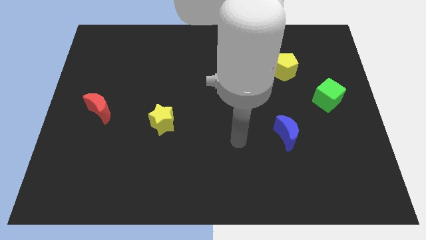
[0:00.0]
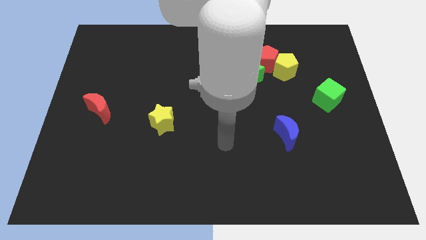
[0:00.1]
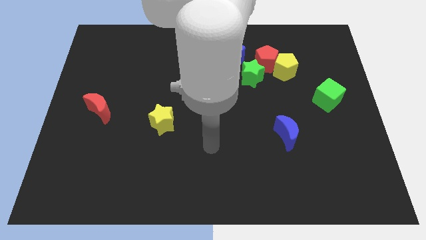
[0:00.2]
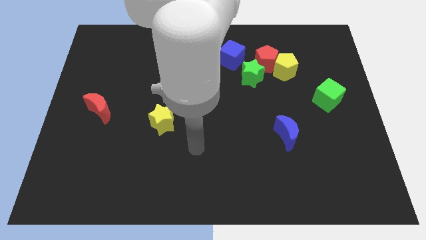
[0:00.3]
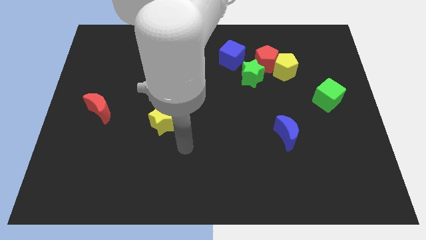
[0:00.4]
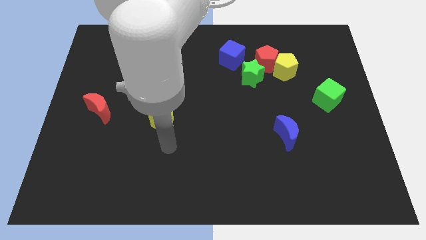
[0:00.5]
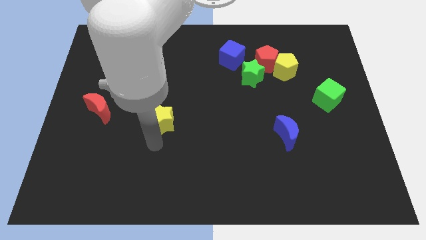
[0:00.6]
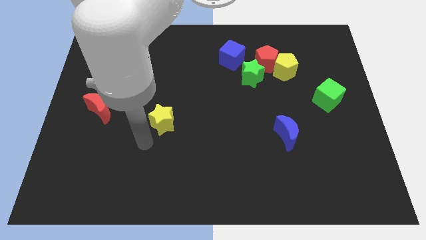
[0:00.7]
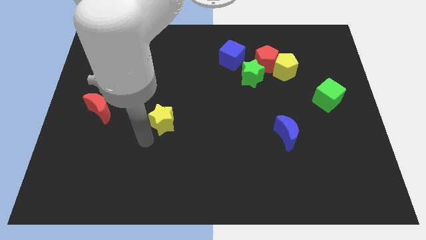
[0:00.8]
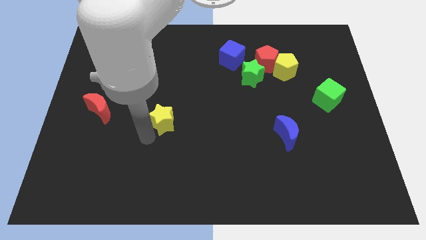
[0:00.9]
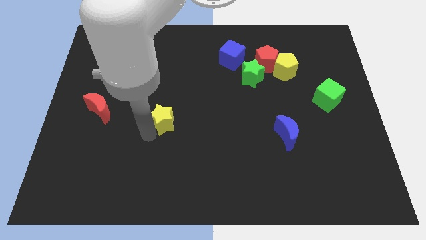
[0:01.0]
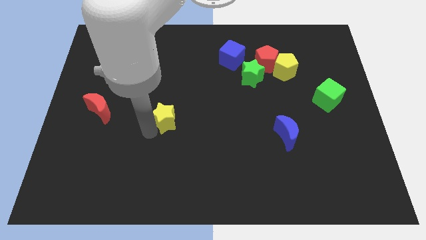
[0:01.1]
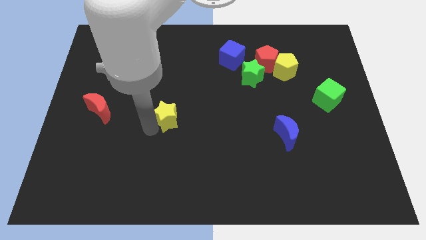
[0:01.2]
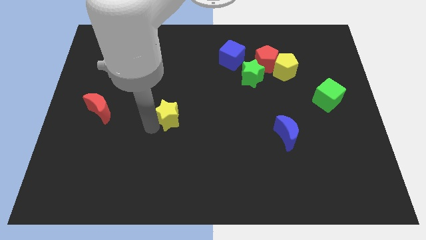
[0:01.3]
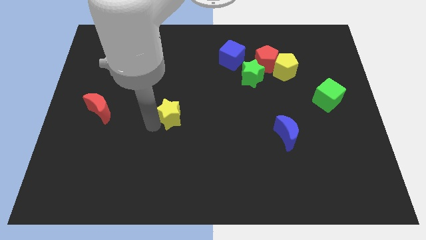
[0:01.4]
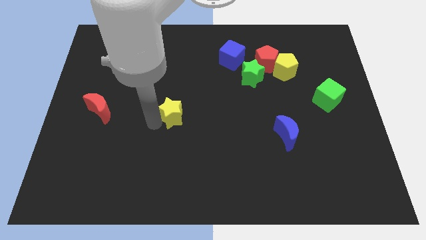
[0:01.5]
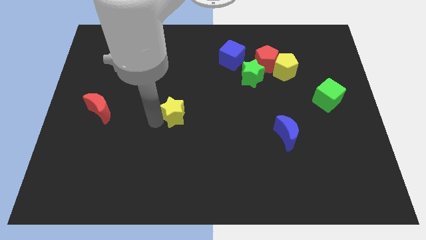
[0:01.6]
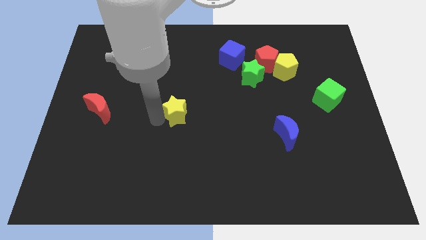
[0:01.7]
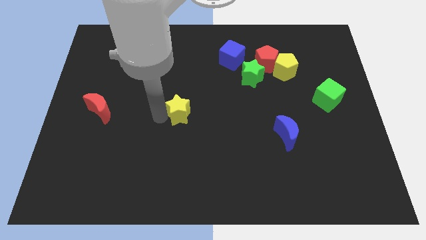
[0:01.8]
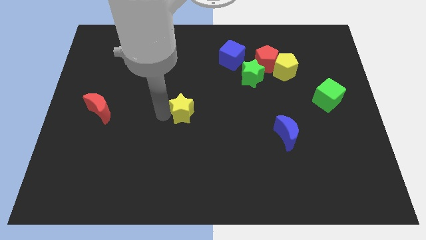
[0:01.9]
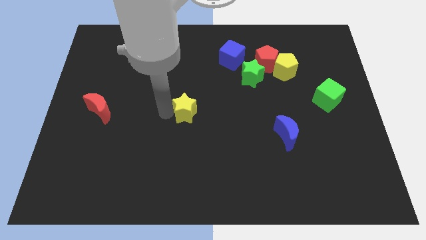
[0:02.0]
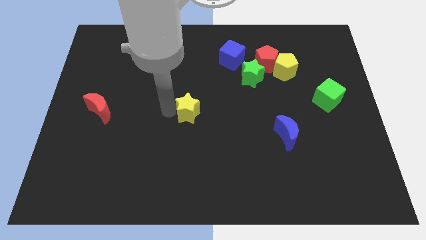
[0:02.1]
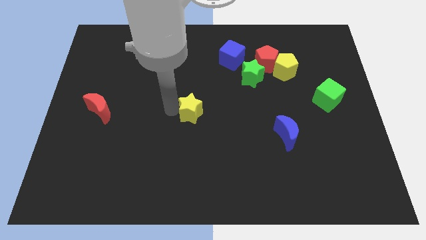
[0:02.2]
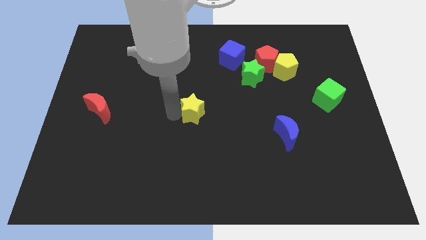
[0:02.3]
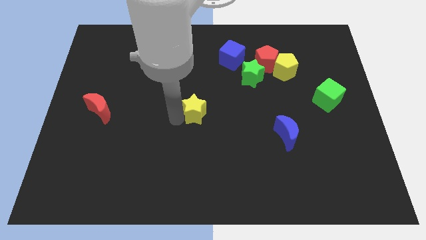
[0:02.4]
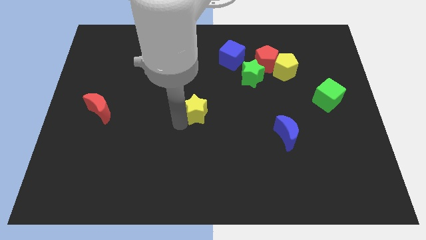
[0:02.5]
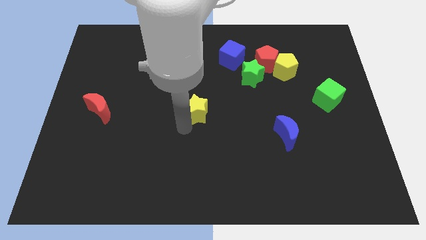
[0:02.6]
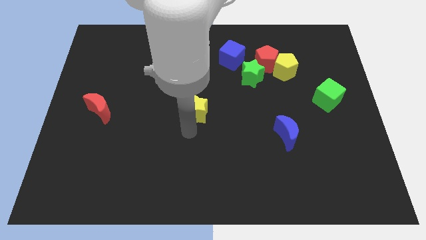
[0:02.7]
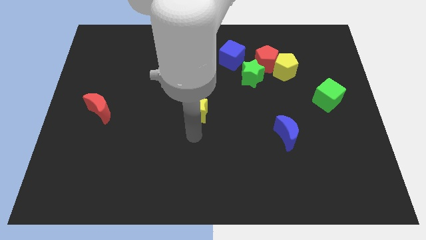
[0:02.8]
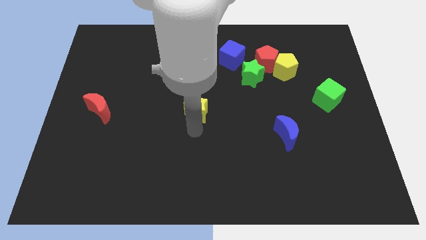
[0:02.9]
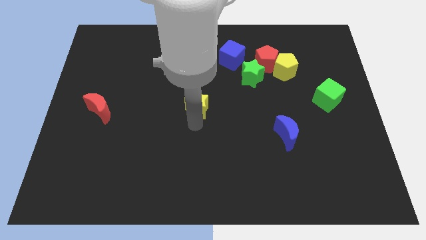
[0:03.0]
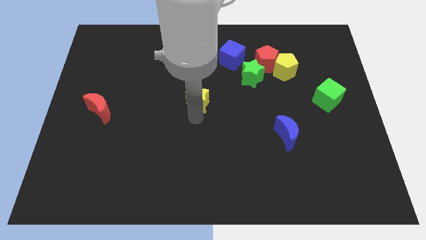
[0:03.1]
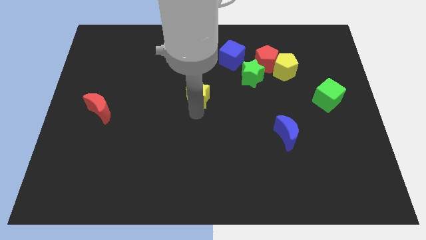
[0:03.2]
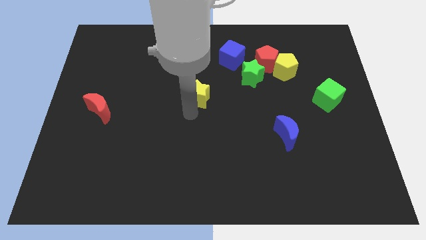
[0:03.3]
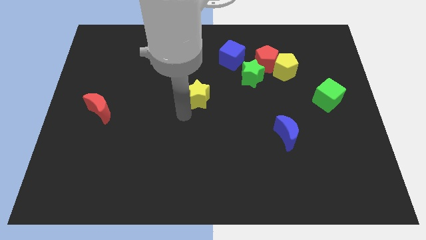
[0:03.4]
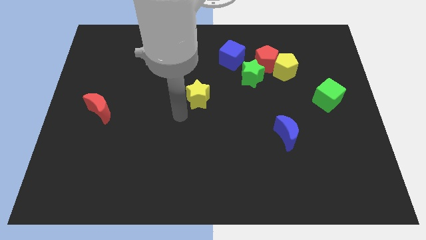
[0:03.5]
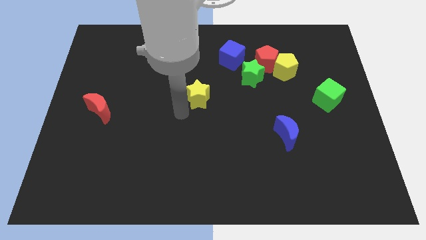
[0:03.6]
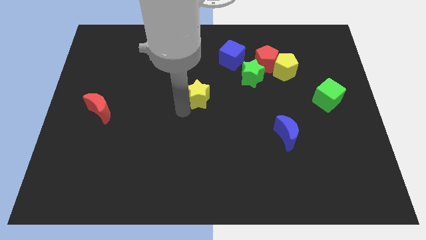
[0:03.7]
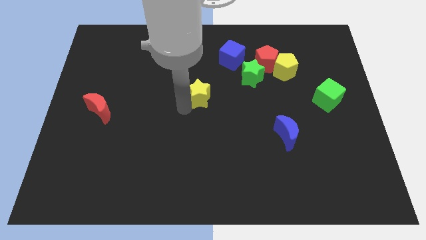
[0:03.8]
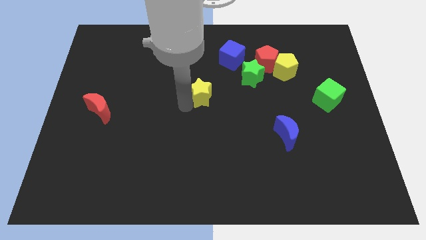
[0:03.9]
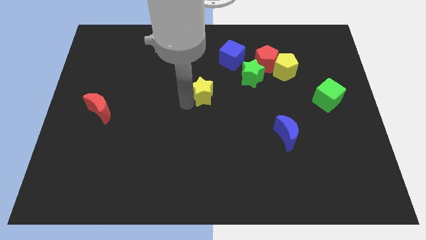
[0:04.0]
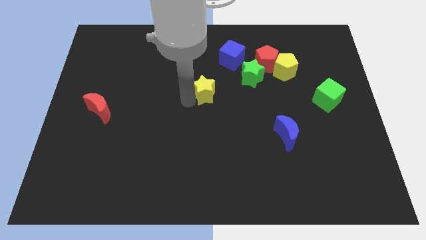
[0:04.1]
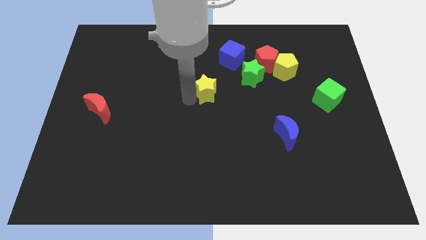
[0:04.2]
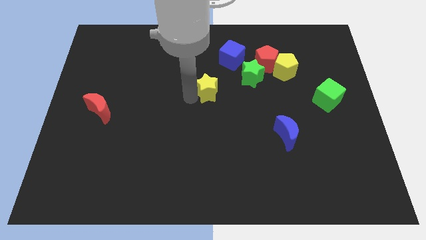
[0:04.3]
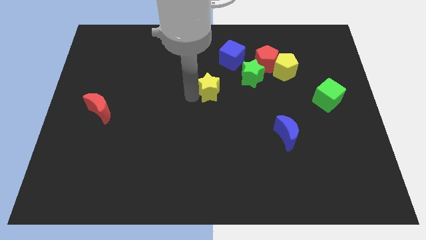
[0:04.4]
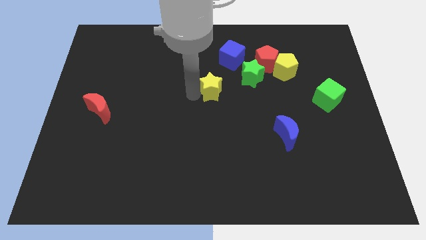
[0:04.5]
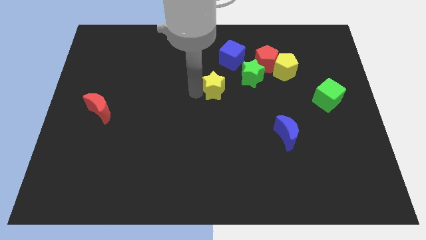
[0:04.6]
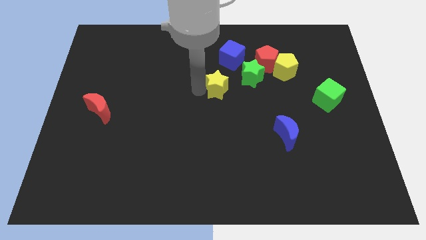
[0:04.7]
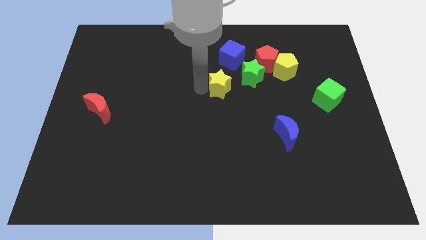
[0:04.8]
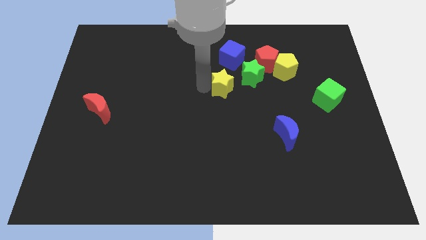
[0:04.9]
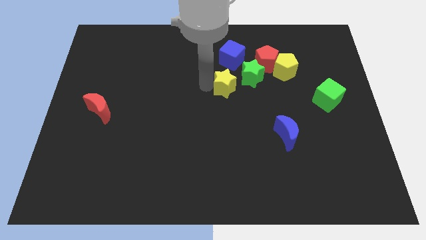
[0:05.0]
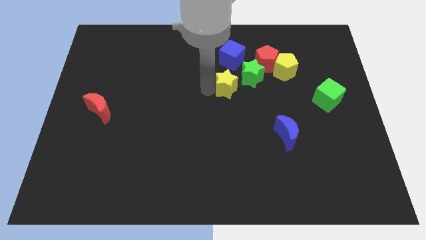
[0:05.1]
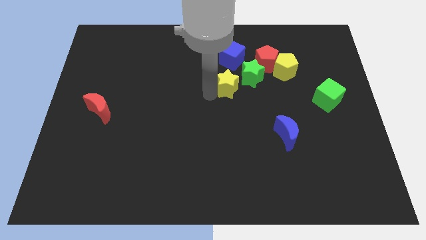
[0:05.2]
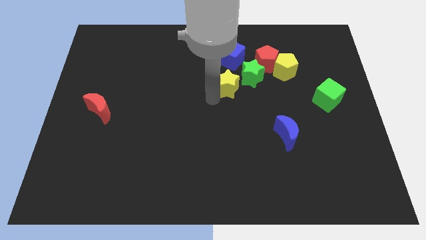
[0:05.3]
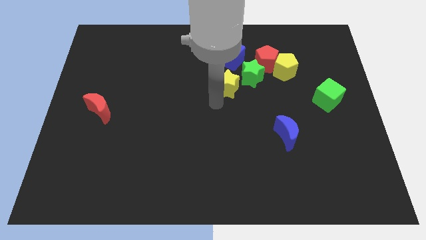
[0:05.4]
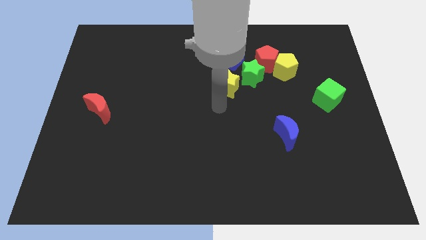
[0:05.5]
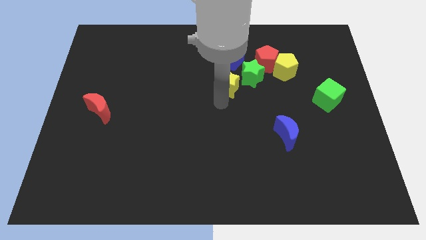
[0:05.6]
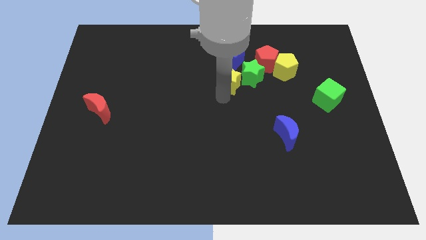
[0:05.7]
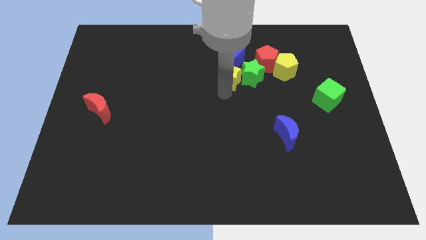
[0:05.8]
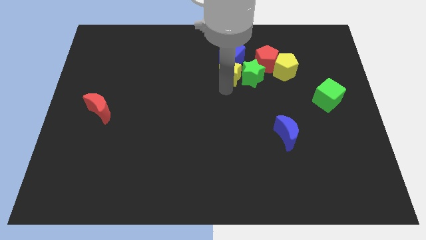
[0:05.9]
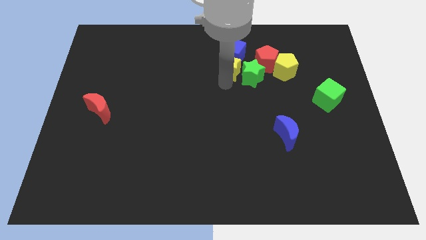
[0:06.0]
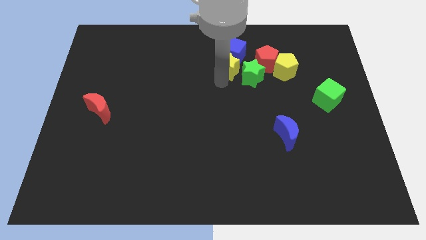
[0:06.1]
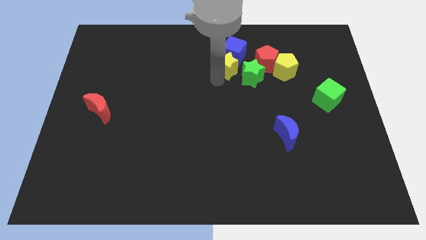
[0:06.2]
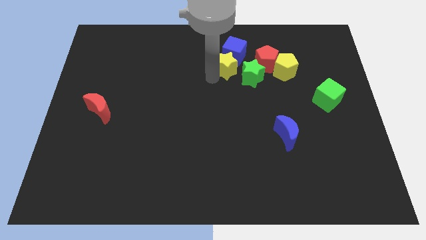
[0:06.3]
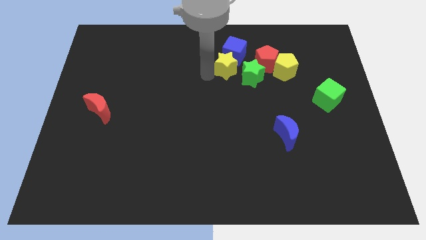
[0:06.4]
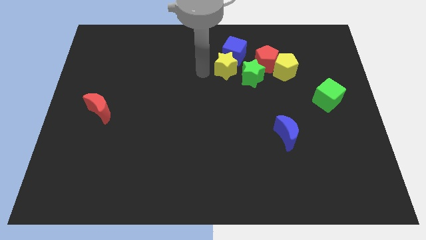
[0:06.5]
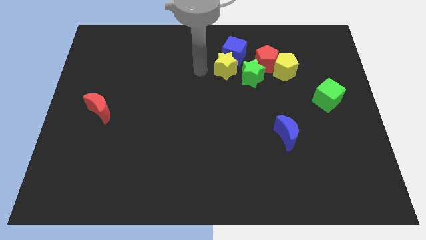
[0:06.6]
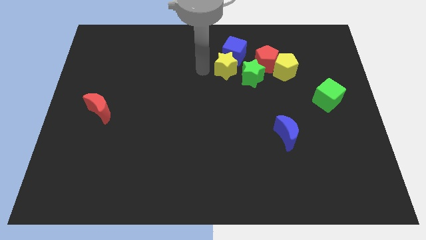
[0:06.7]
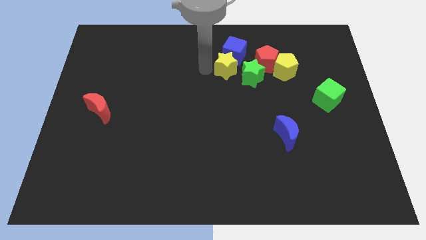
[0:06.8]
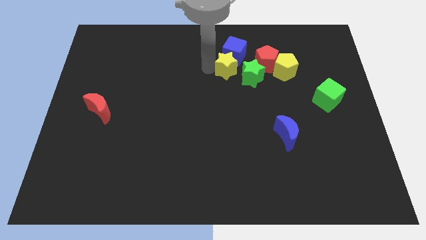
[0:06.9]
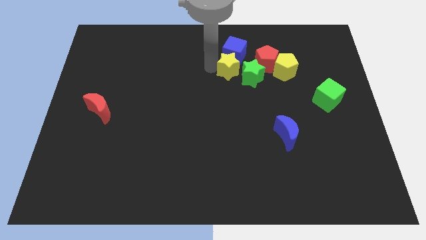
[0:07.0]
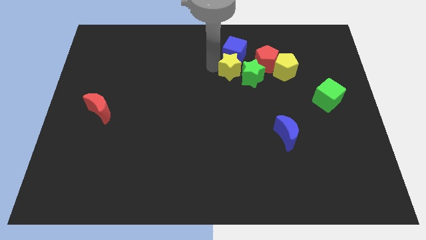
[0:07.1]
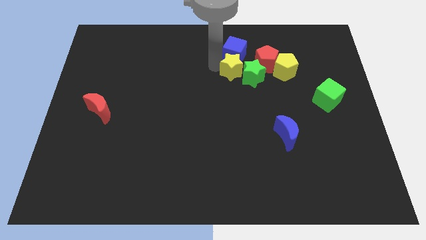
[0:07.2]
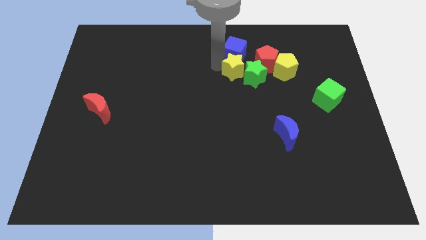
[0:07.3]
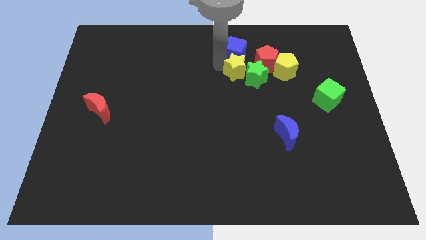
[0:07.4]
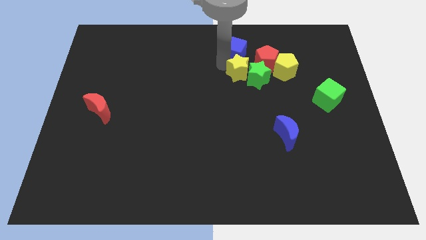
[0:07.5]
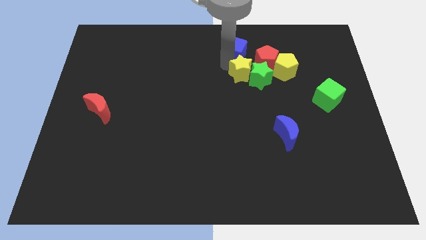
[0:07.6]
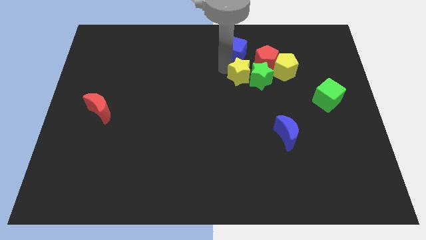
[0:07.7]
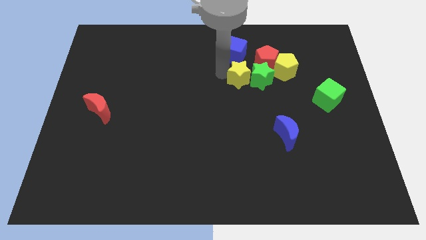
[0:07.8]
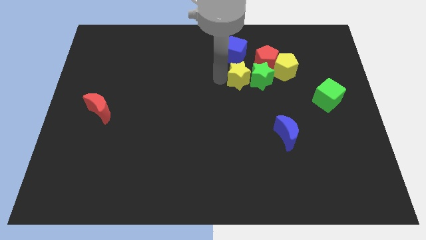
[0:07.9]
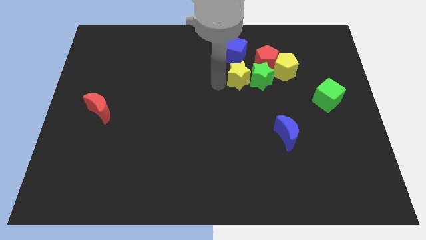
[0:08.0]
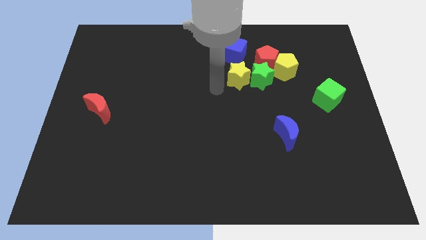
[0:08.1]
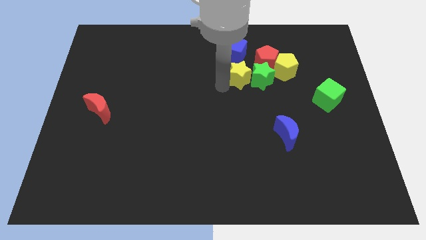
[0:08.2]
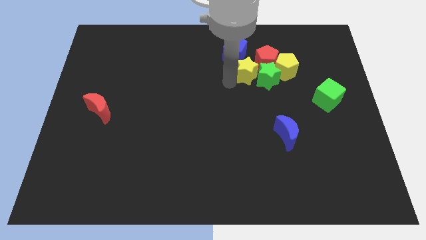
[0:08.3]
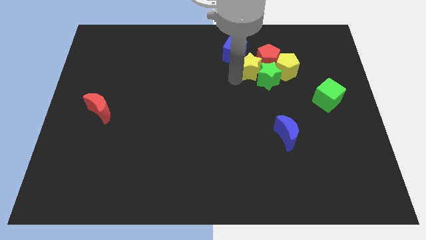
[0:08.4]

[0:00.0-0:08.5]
slide the yellow star towards the red pentagon

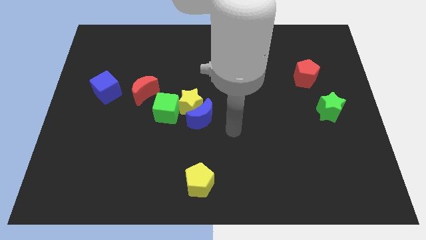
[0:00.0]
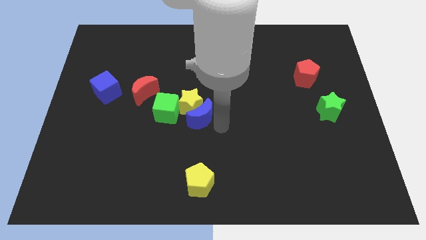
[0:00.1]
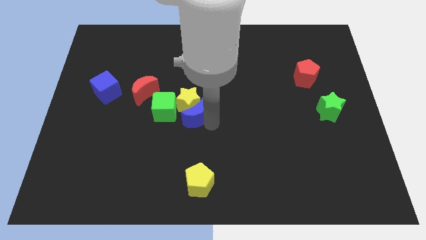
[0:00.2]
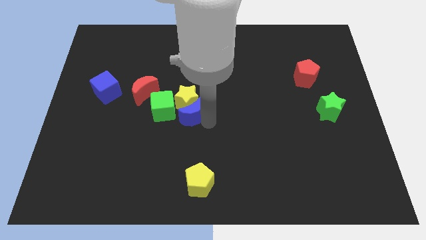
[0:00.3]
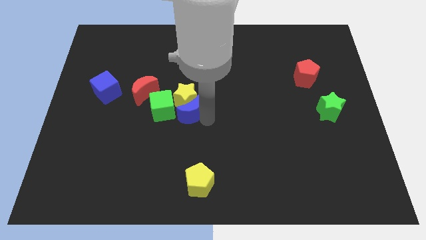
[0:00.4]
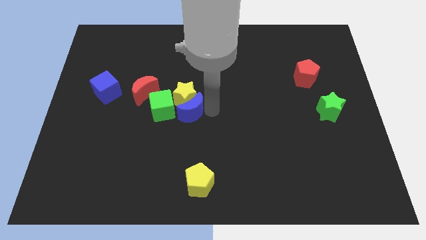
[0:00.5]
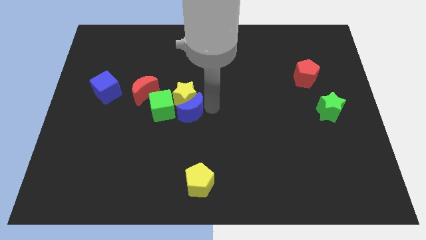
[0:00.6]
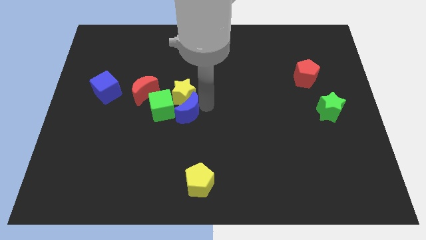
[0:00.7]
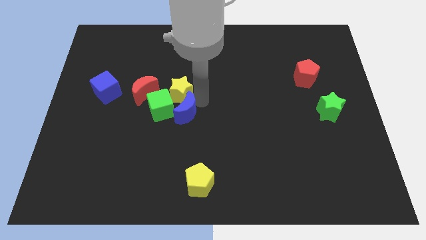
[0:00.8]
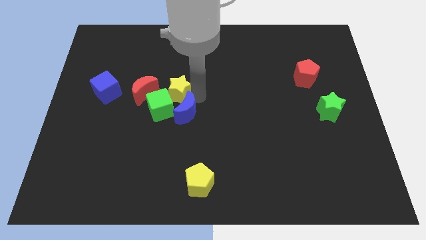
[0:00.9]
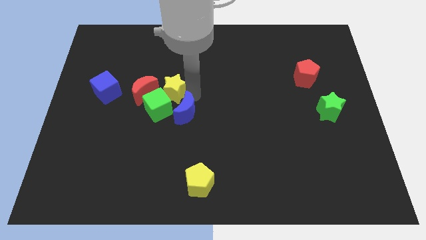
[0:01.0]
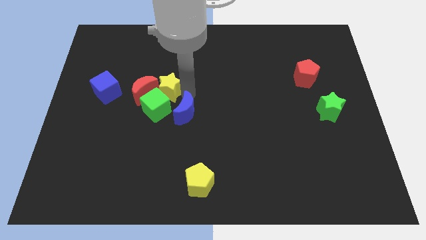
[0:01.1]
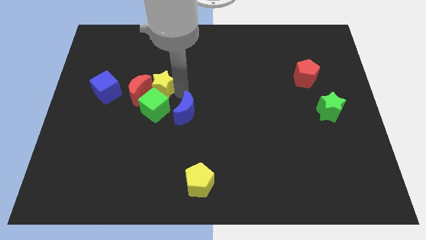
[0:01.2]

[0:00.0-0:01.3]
slide the yellow star to the red moon
